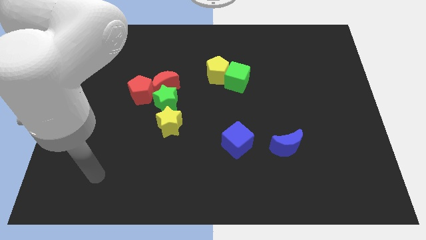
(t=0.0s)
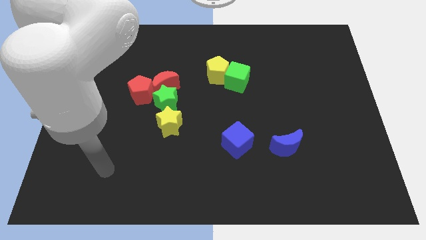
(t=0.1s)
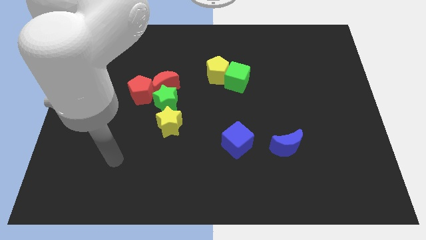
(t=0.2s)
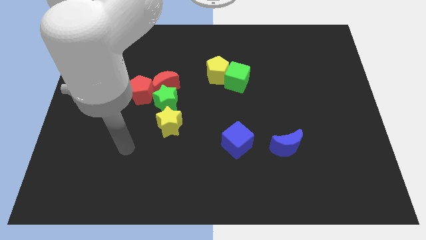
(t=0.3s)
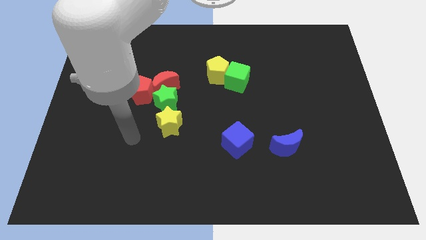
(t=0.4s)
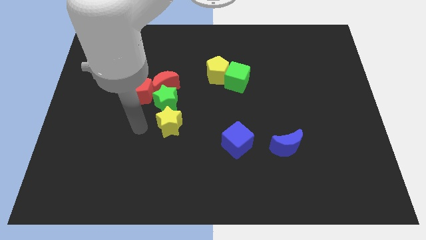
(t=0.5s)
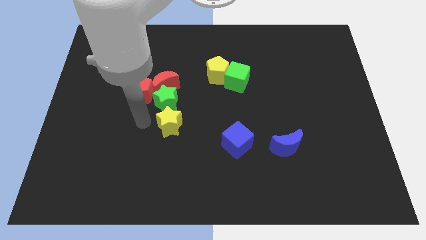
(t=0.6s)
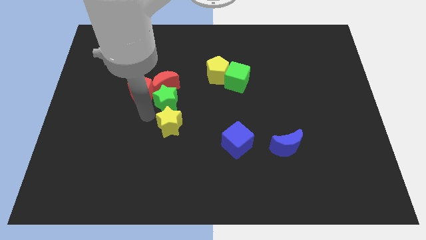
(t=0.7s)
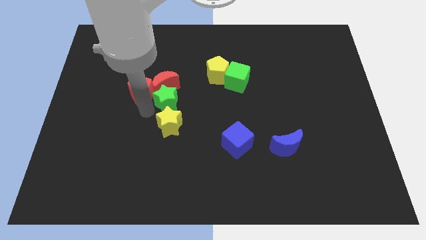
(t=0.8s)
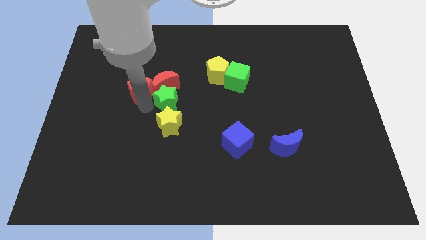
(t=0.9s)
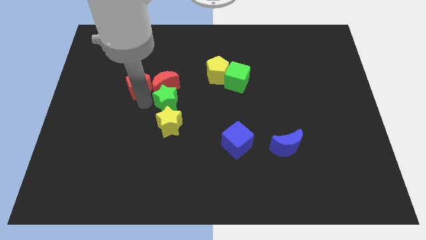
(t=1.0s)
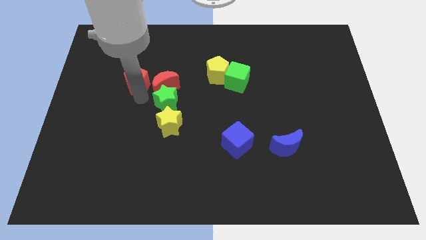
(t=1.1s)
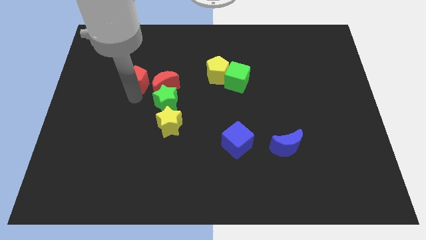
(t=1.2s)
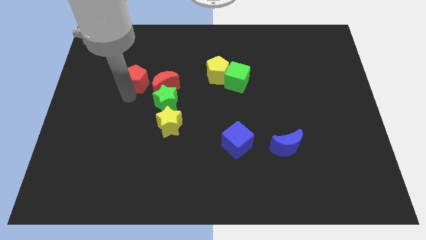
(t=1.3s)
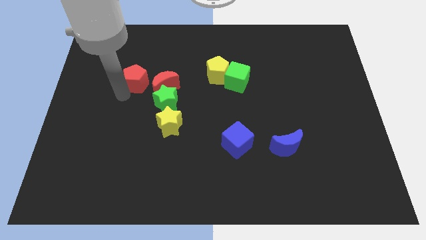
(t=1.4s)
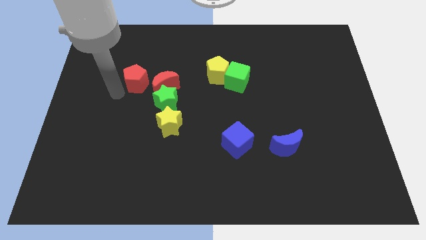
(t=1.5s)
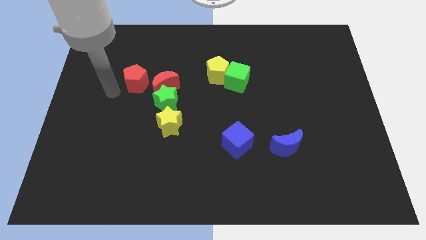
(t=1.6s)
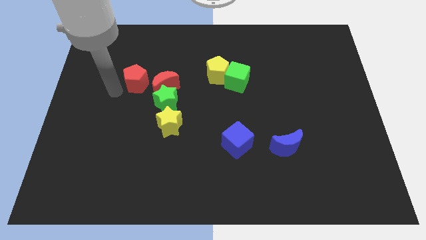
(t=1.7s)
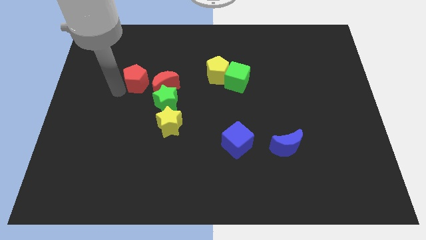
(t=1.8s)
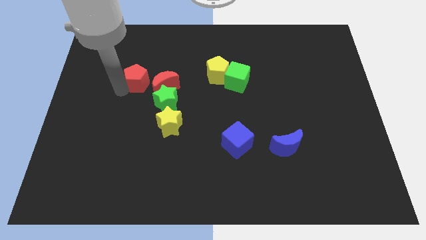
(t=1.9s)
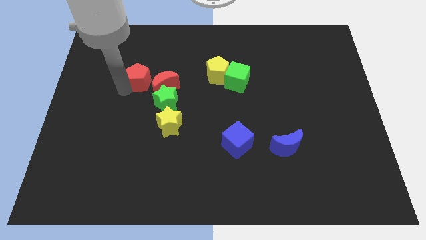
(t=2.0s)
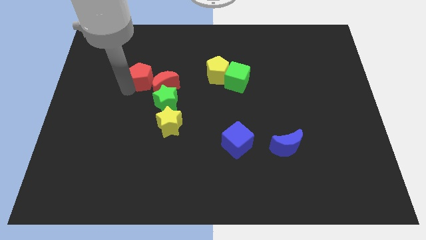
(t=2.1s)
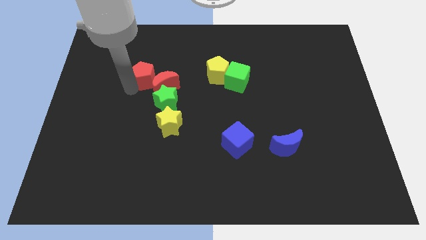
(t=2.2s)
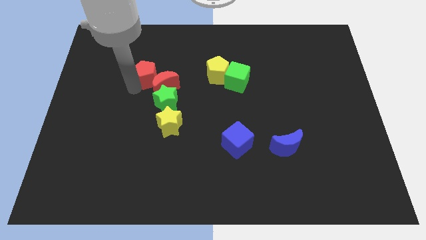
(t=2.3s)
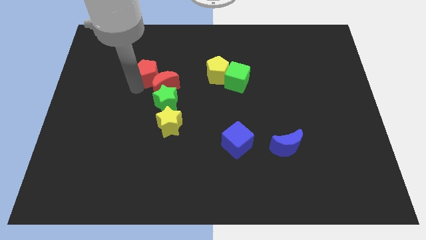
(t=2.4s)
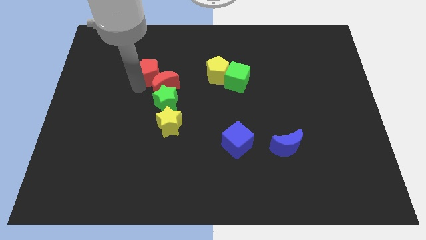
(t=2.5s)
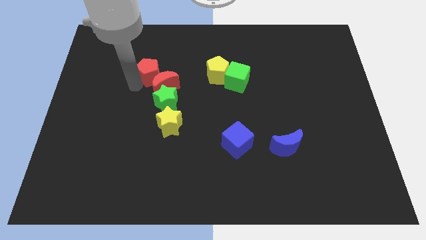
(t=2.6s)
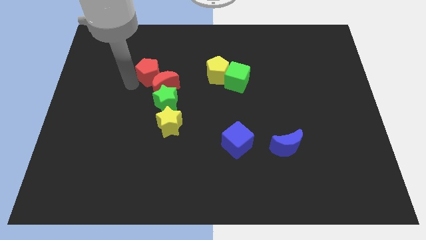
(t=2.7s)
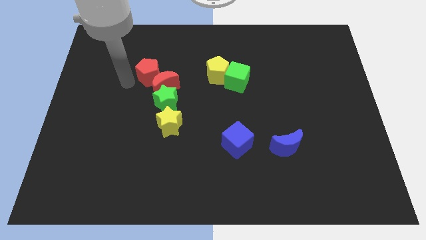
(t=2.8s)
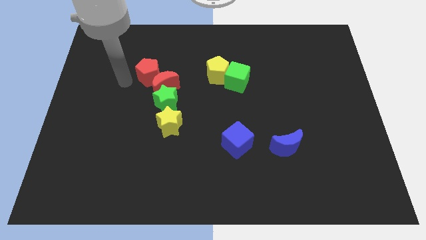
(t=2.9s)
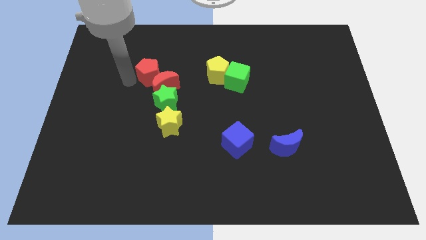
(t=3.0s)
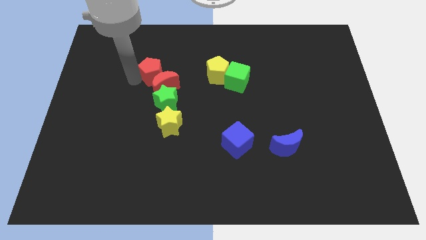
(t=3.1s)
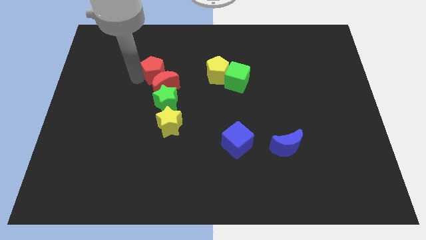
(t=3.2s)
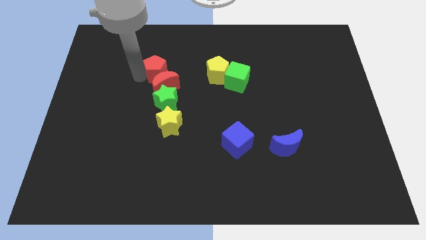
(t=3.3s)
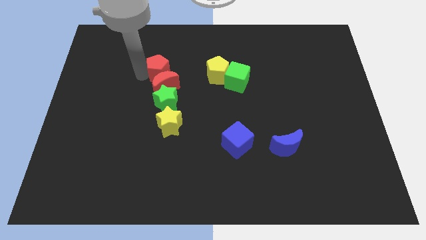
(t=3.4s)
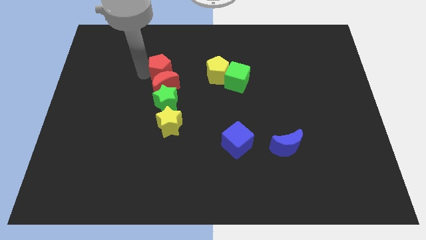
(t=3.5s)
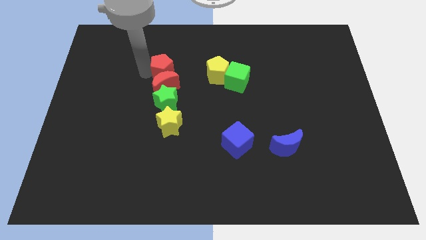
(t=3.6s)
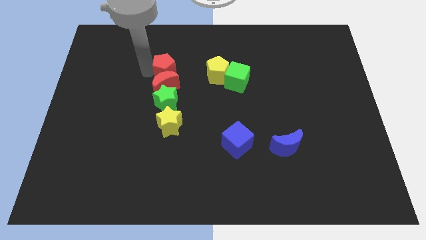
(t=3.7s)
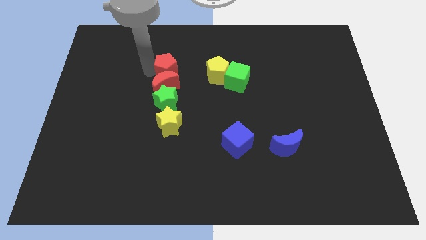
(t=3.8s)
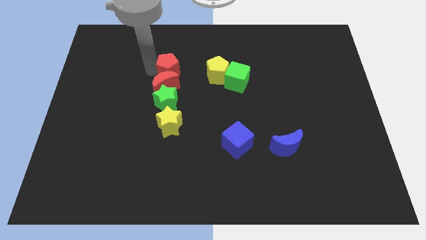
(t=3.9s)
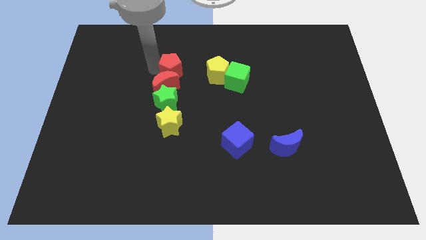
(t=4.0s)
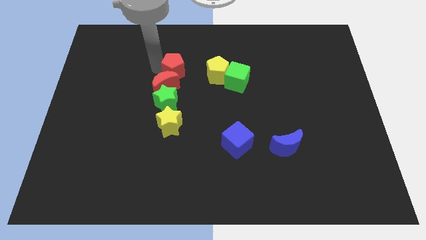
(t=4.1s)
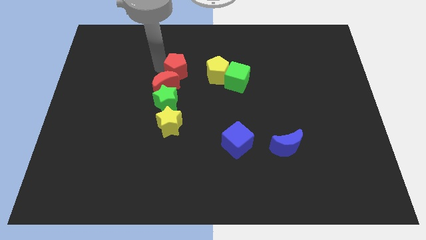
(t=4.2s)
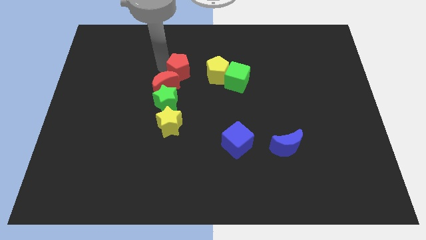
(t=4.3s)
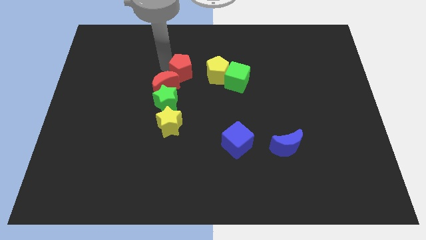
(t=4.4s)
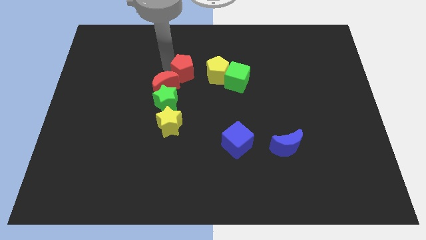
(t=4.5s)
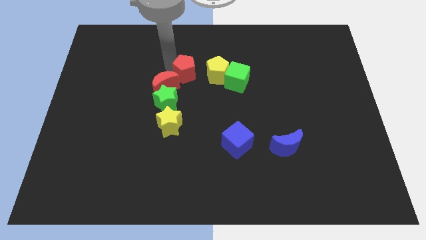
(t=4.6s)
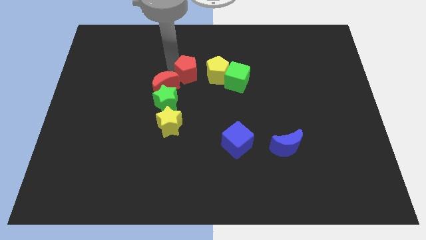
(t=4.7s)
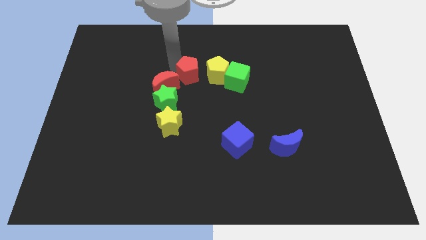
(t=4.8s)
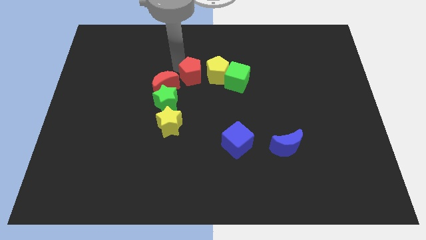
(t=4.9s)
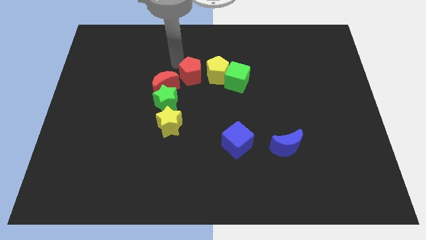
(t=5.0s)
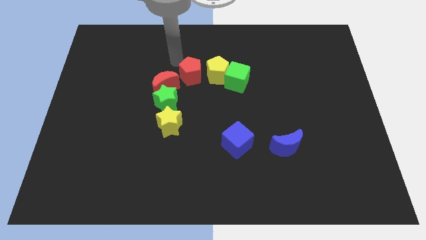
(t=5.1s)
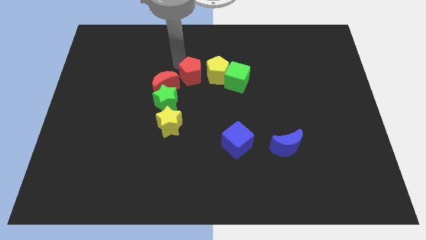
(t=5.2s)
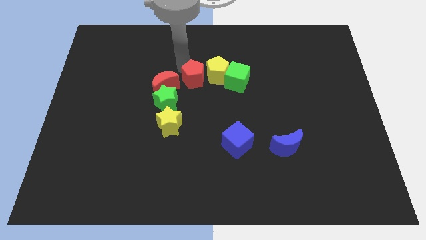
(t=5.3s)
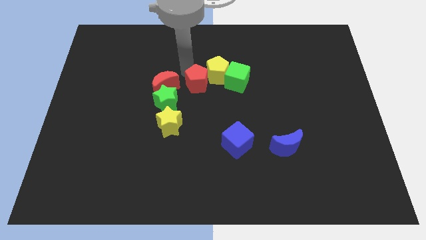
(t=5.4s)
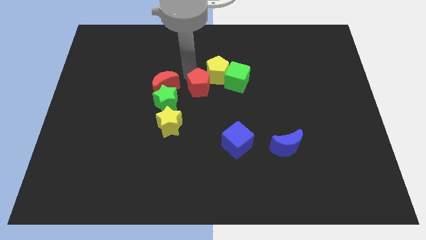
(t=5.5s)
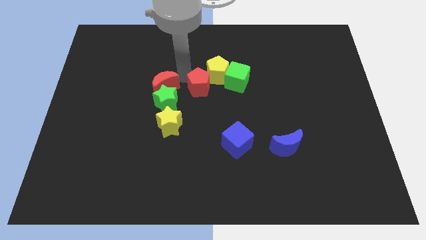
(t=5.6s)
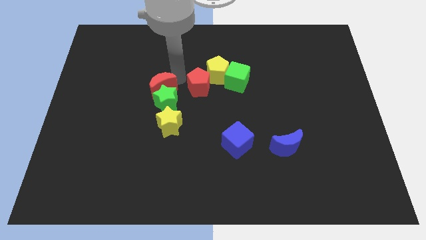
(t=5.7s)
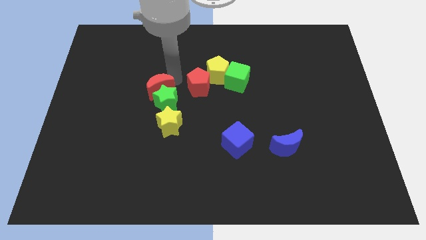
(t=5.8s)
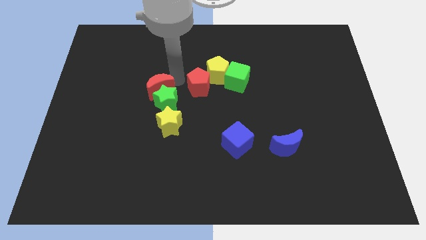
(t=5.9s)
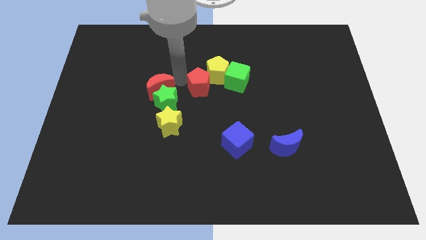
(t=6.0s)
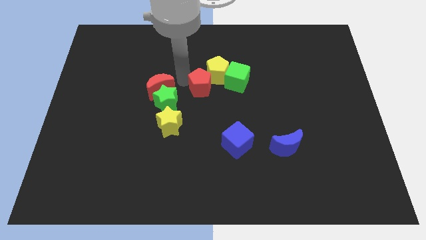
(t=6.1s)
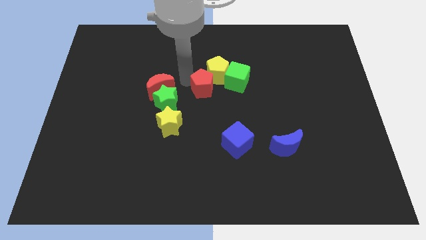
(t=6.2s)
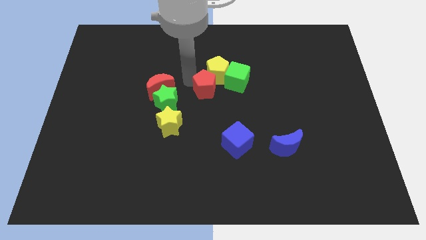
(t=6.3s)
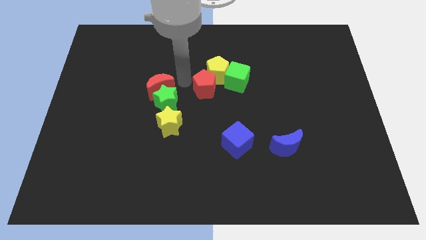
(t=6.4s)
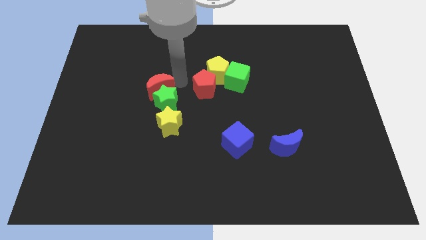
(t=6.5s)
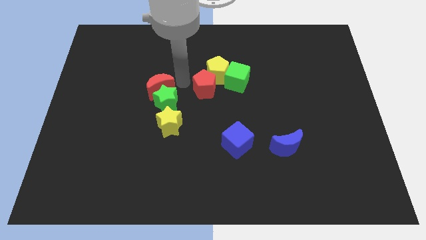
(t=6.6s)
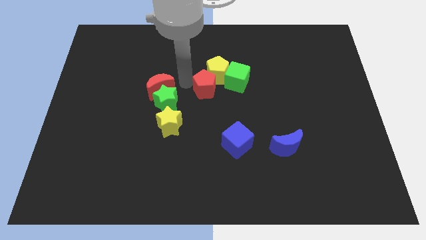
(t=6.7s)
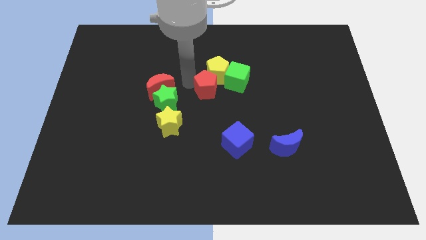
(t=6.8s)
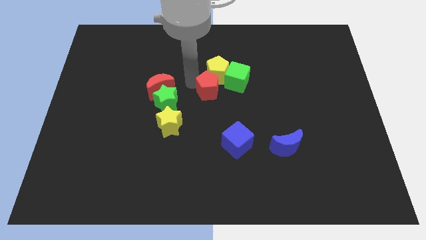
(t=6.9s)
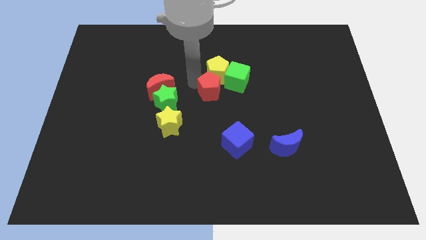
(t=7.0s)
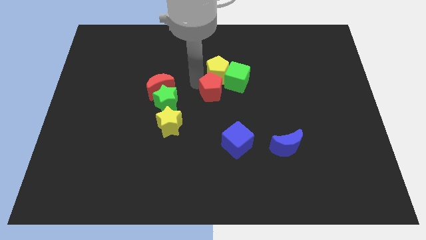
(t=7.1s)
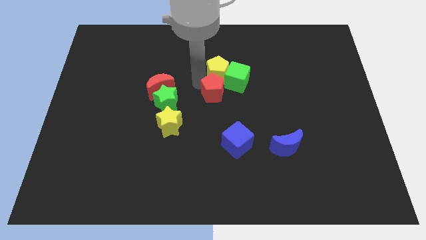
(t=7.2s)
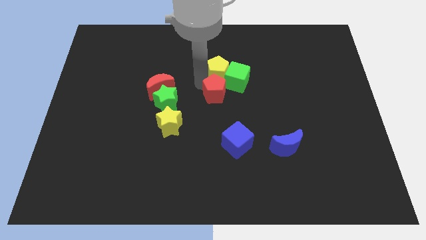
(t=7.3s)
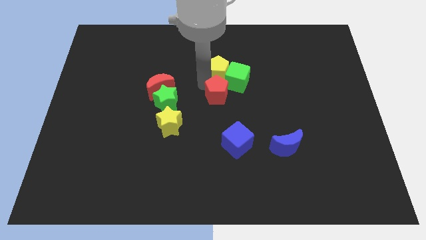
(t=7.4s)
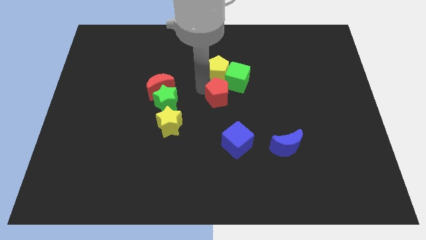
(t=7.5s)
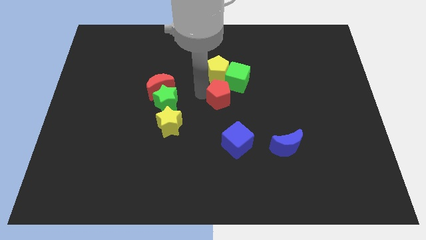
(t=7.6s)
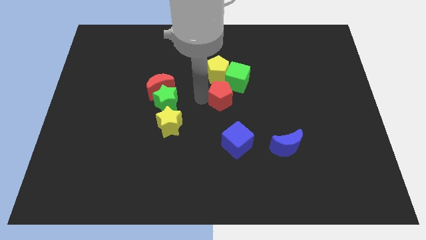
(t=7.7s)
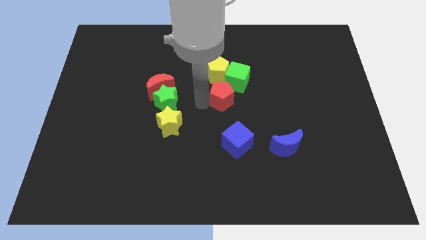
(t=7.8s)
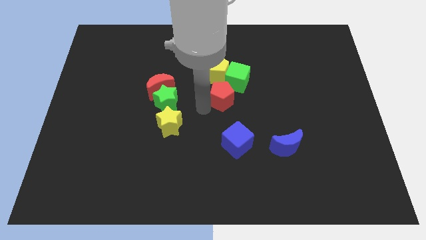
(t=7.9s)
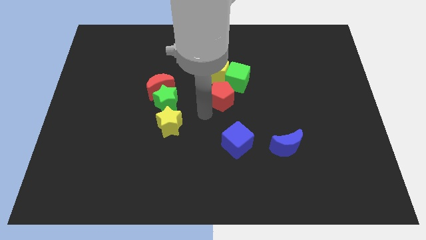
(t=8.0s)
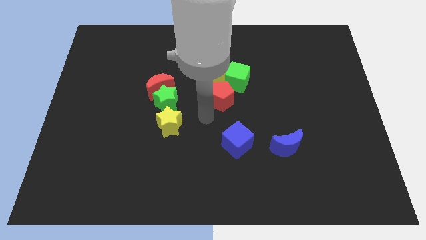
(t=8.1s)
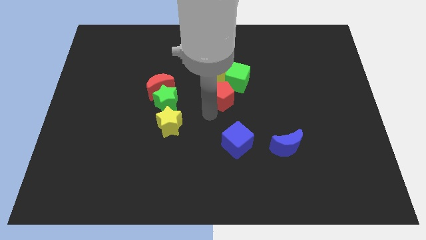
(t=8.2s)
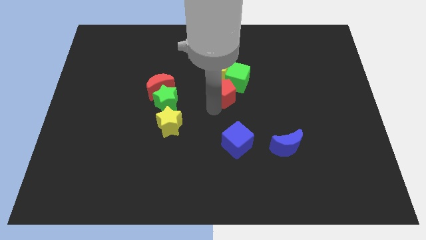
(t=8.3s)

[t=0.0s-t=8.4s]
slide the red pentagon close to the green cube
